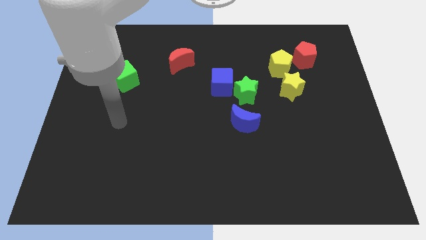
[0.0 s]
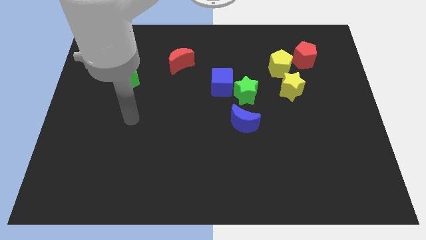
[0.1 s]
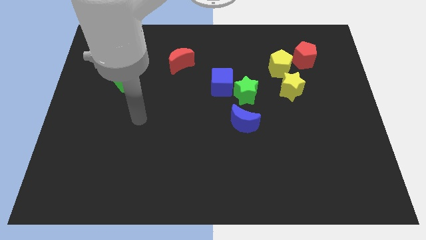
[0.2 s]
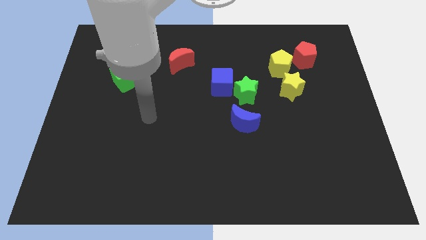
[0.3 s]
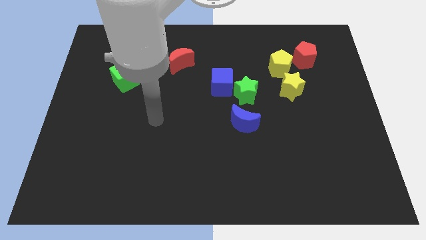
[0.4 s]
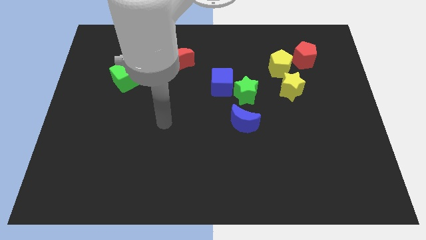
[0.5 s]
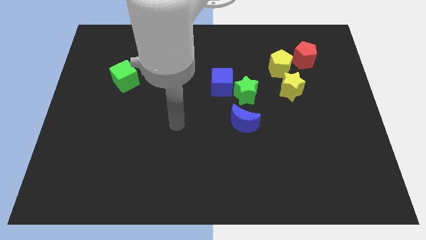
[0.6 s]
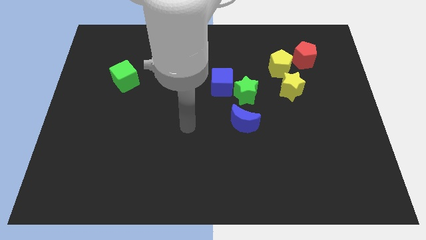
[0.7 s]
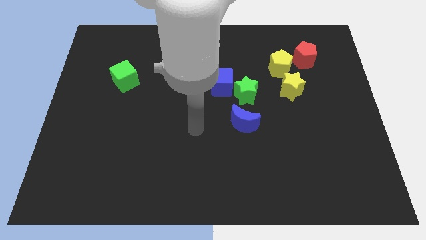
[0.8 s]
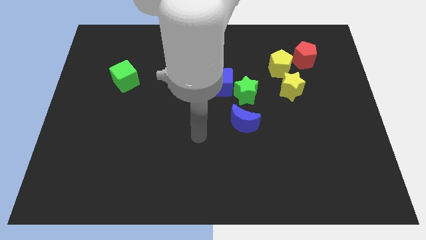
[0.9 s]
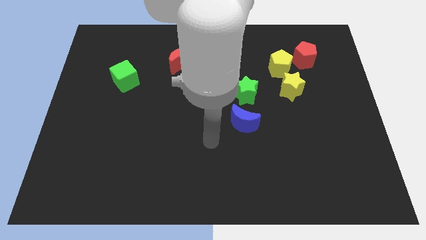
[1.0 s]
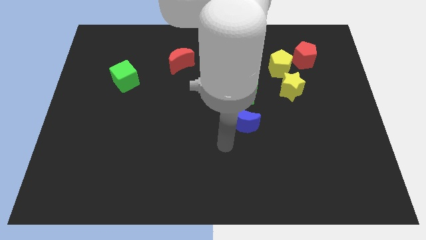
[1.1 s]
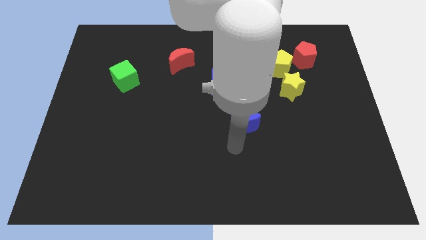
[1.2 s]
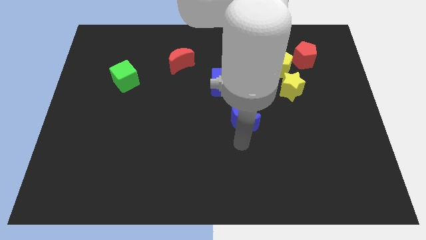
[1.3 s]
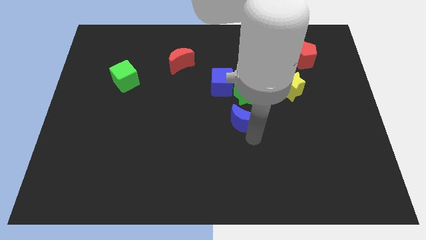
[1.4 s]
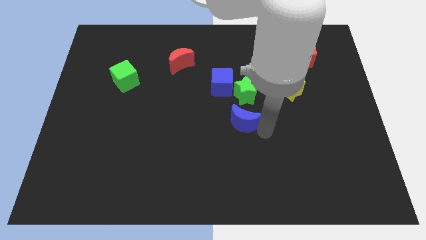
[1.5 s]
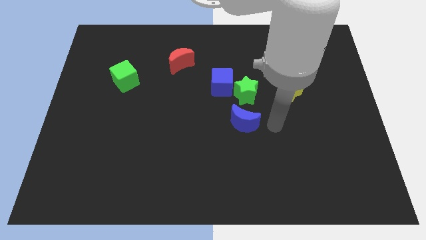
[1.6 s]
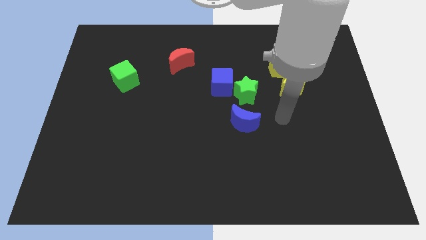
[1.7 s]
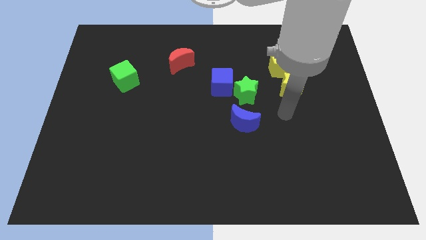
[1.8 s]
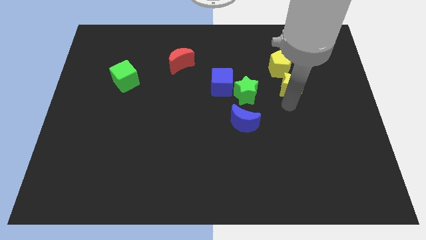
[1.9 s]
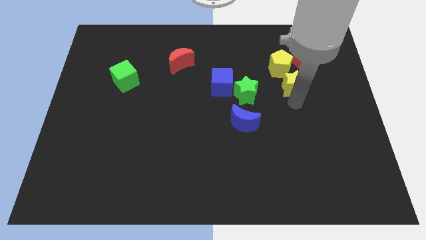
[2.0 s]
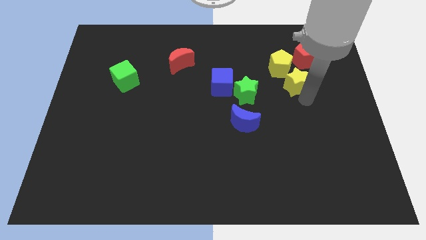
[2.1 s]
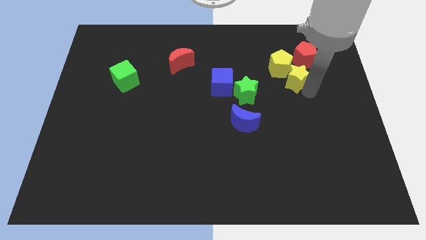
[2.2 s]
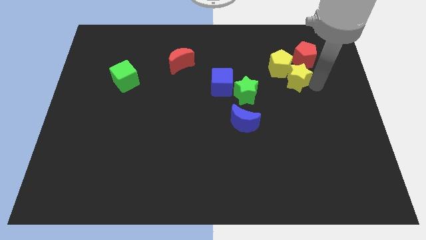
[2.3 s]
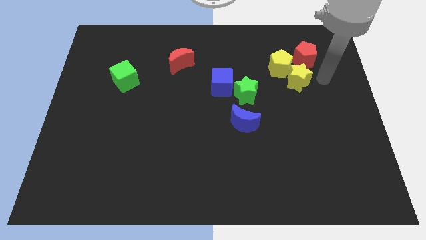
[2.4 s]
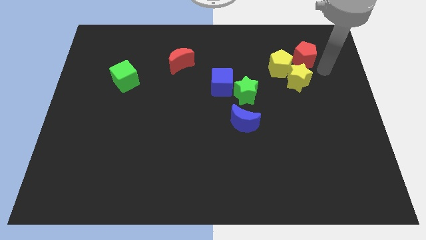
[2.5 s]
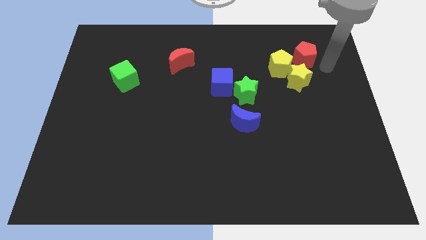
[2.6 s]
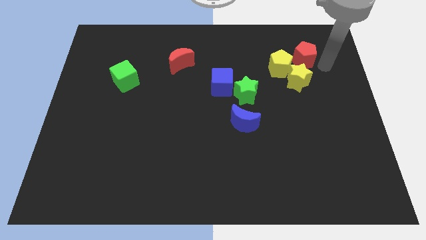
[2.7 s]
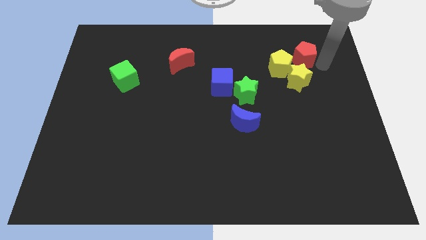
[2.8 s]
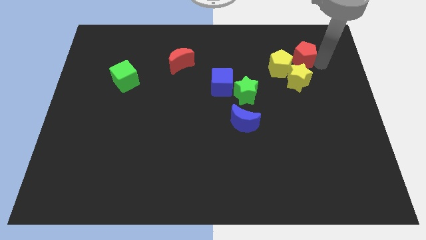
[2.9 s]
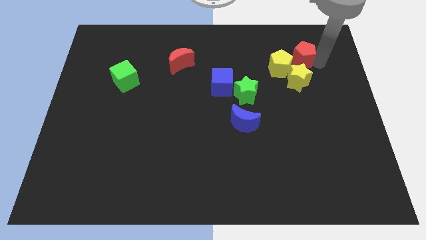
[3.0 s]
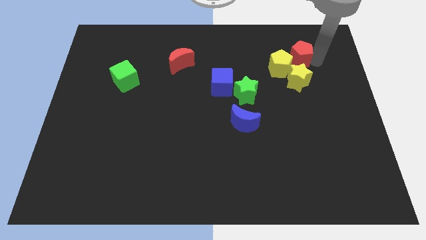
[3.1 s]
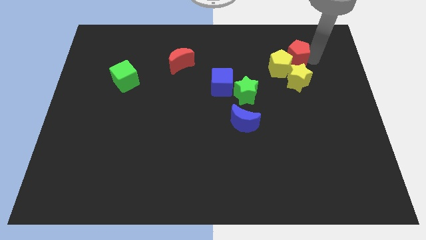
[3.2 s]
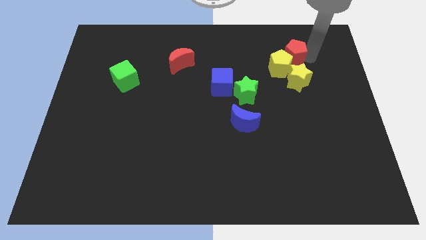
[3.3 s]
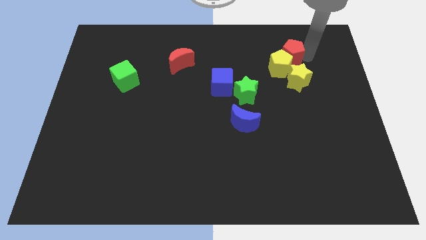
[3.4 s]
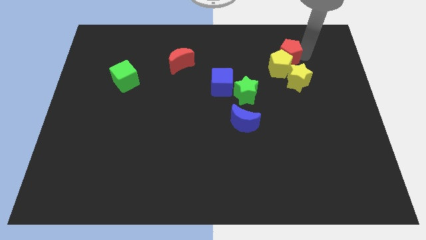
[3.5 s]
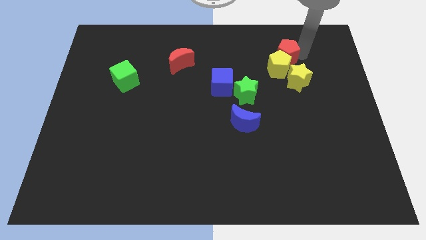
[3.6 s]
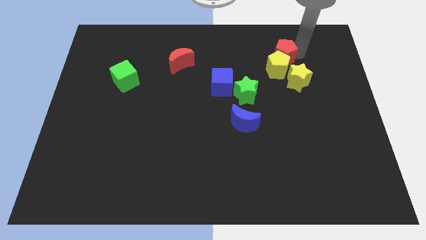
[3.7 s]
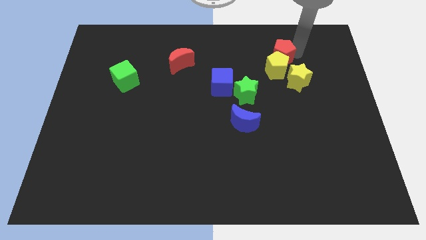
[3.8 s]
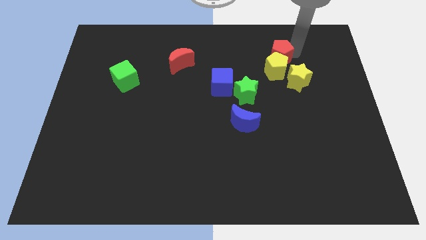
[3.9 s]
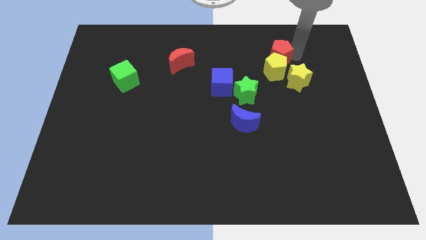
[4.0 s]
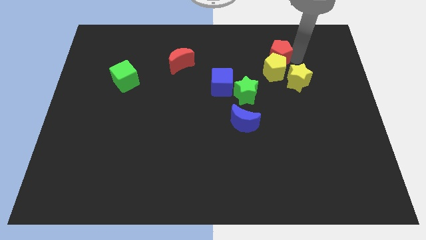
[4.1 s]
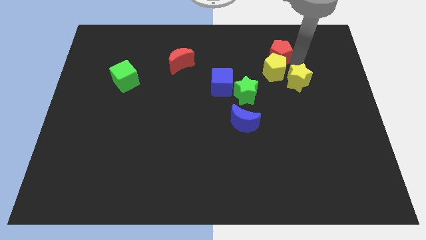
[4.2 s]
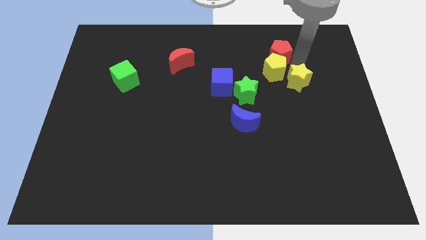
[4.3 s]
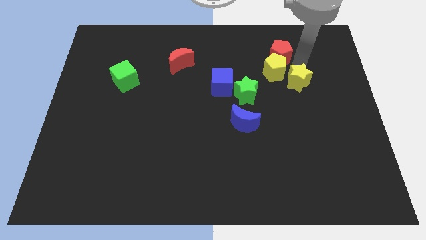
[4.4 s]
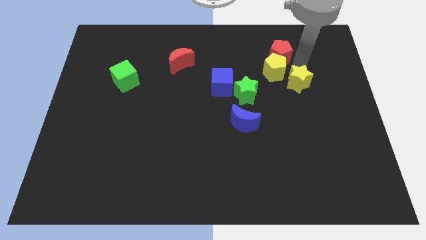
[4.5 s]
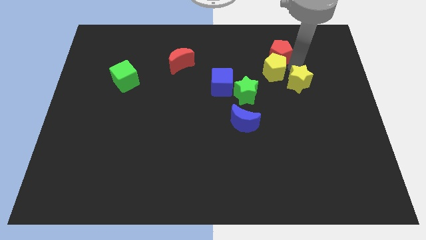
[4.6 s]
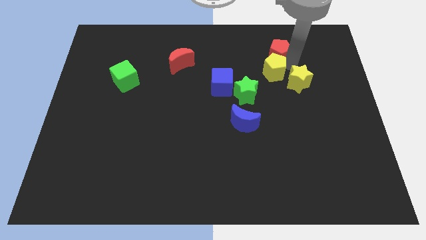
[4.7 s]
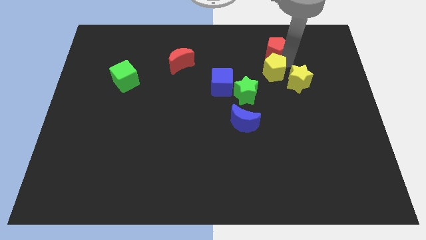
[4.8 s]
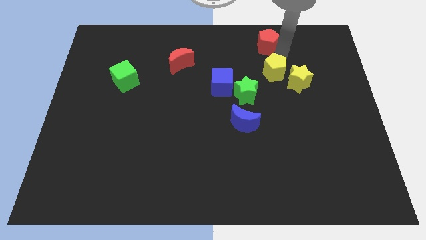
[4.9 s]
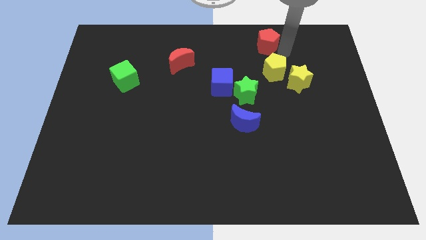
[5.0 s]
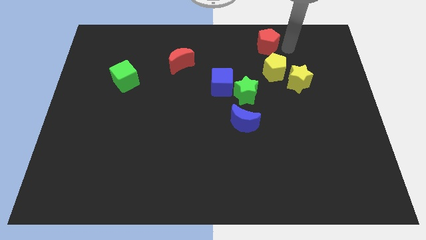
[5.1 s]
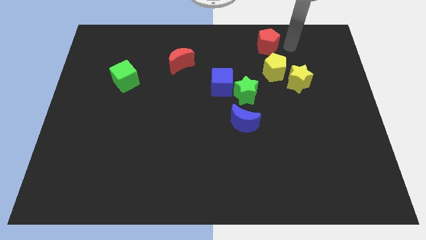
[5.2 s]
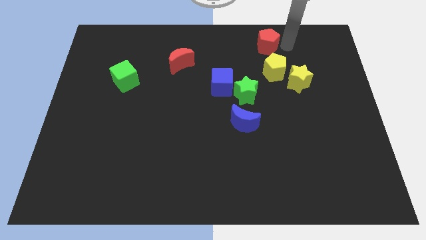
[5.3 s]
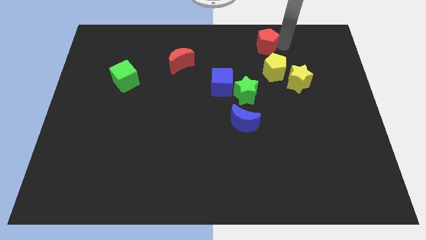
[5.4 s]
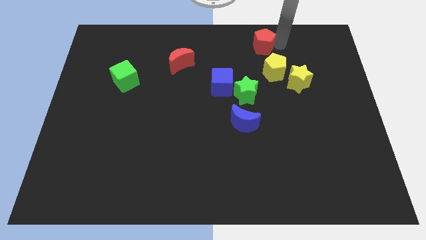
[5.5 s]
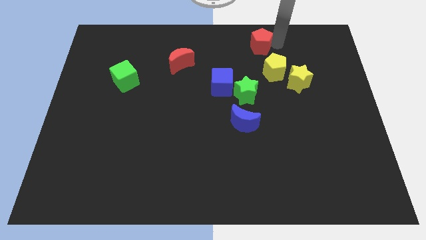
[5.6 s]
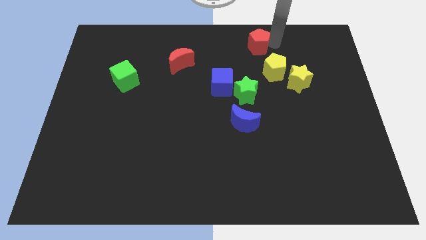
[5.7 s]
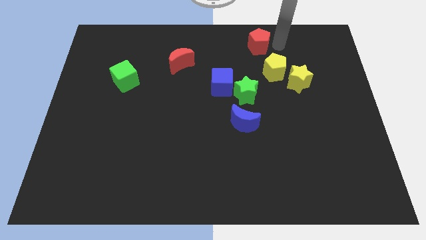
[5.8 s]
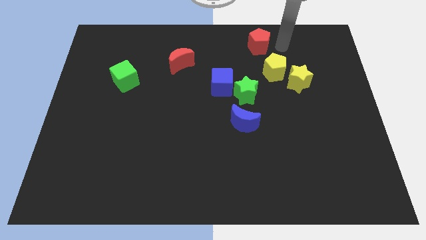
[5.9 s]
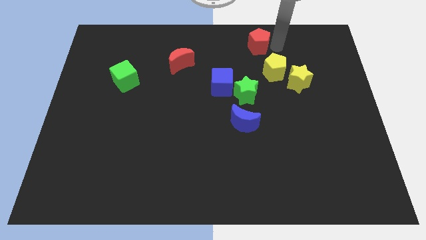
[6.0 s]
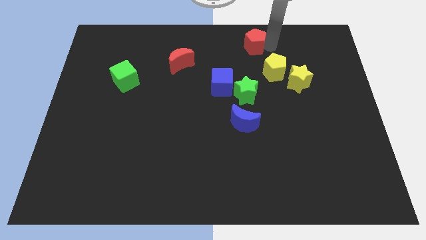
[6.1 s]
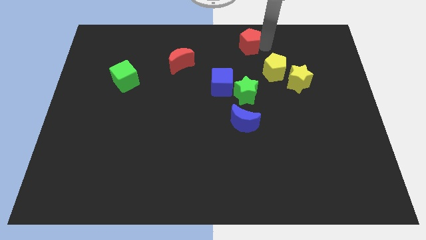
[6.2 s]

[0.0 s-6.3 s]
put the red pentagon to the top
